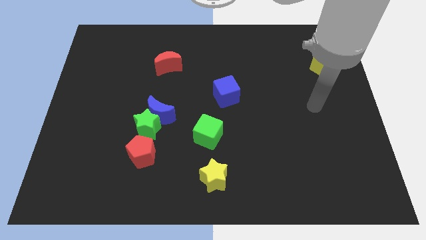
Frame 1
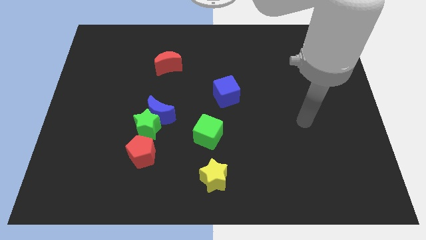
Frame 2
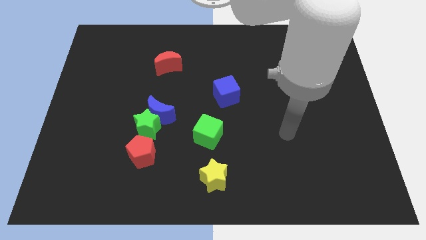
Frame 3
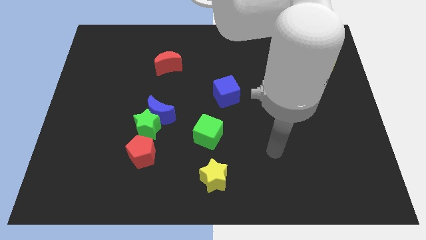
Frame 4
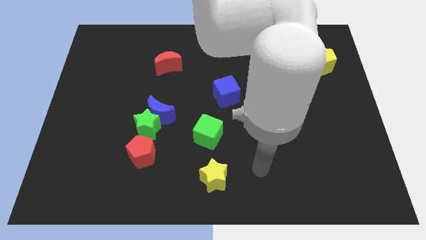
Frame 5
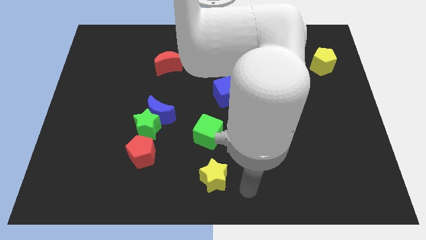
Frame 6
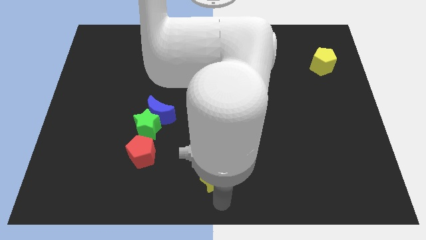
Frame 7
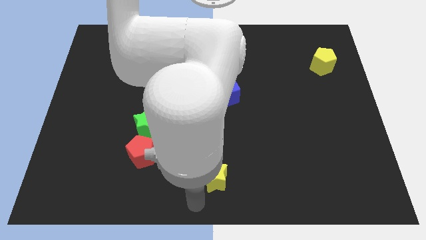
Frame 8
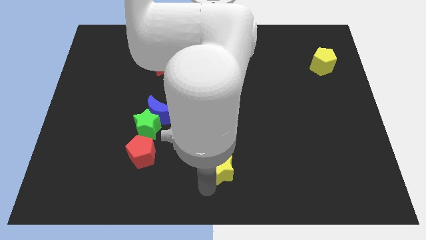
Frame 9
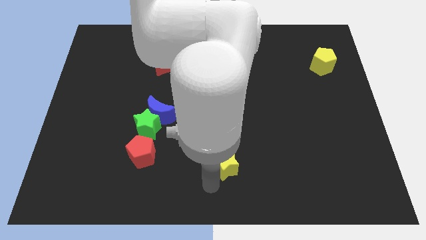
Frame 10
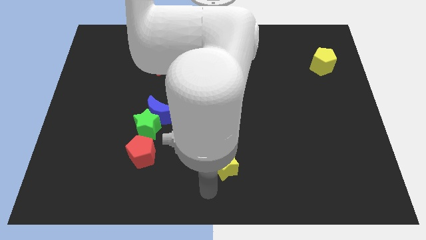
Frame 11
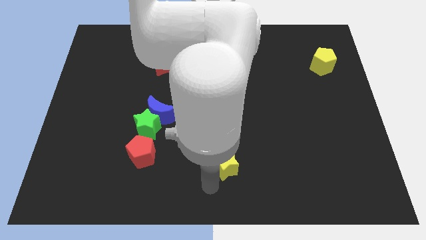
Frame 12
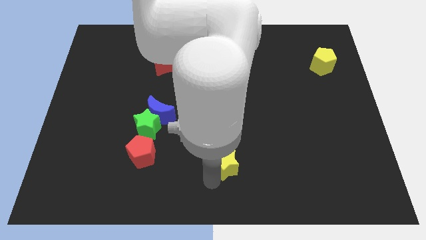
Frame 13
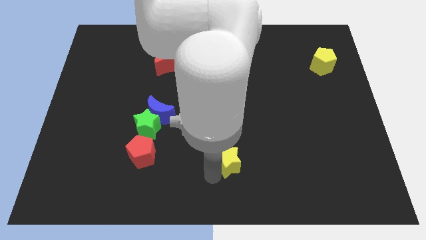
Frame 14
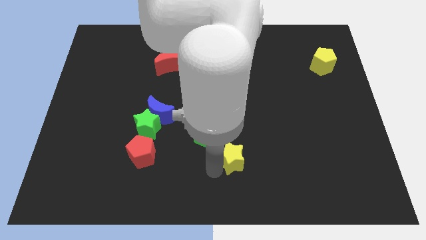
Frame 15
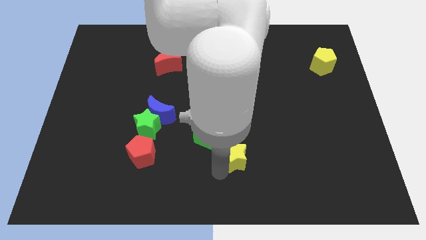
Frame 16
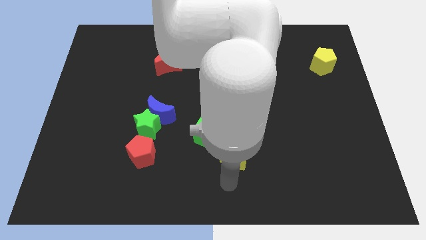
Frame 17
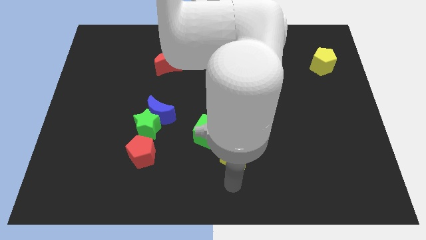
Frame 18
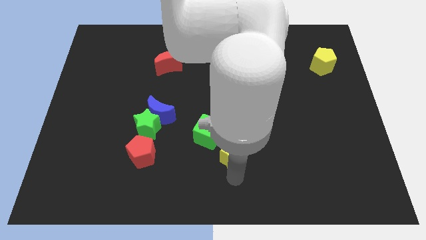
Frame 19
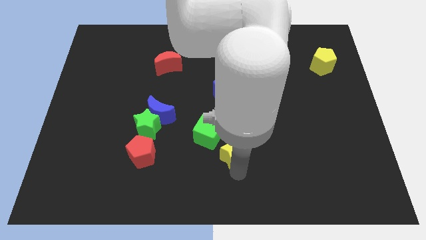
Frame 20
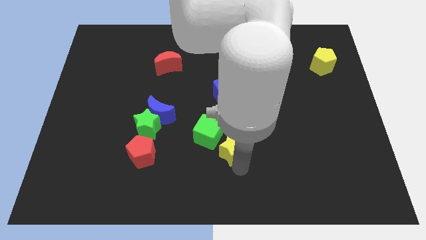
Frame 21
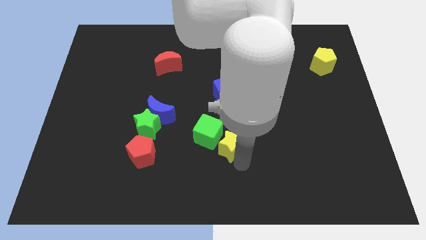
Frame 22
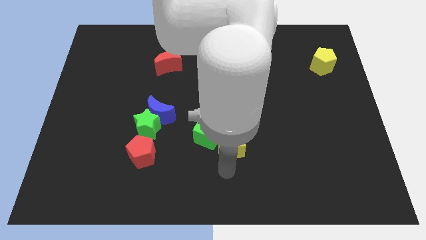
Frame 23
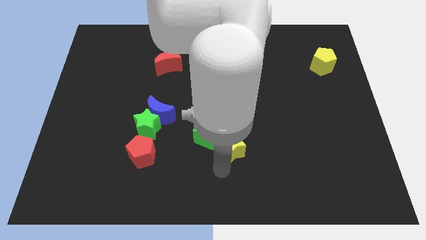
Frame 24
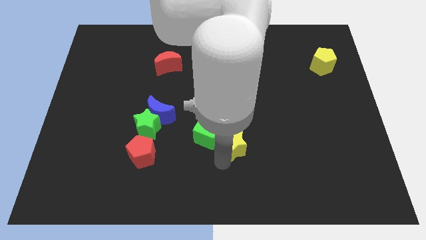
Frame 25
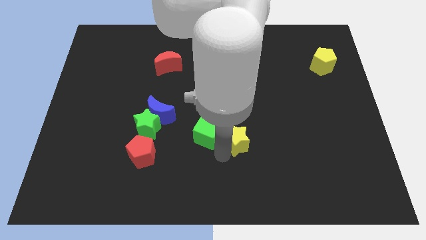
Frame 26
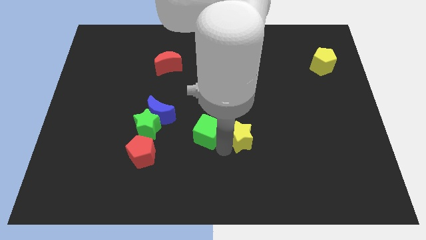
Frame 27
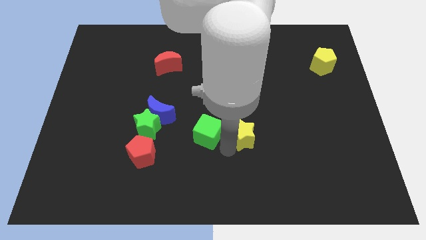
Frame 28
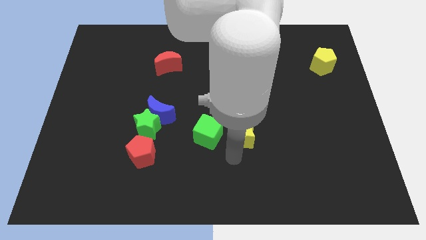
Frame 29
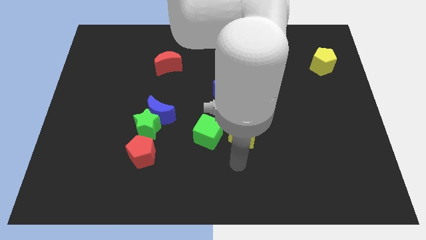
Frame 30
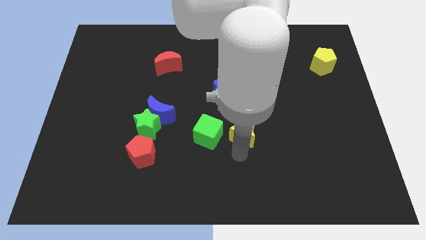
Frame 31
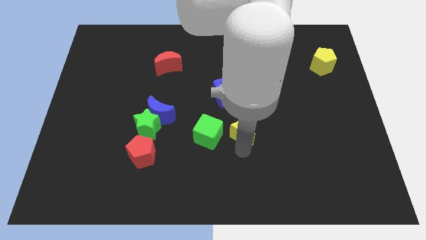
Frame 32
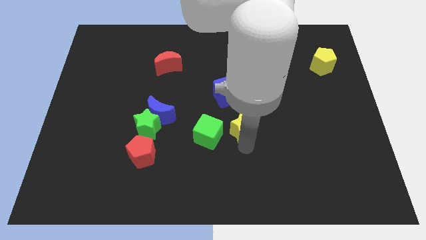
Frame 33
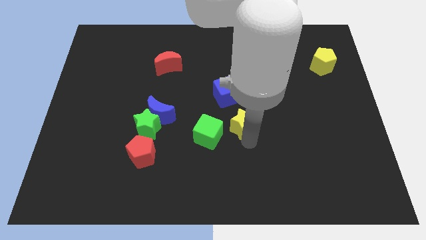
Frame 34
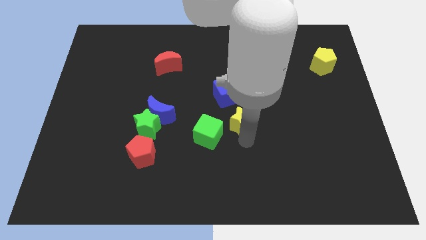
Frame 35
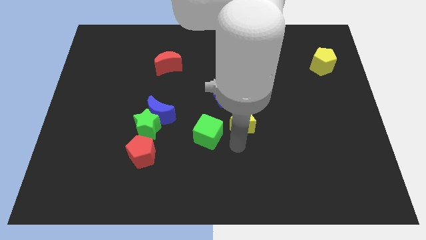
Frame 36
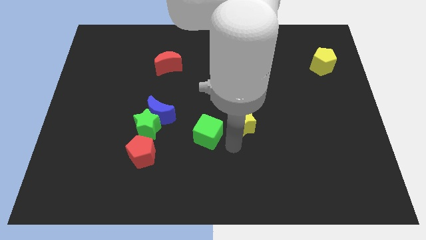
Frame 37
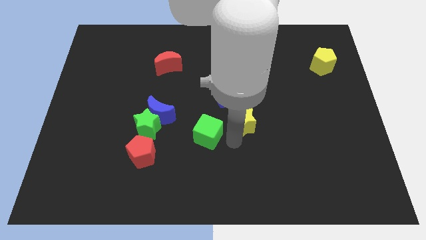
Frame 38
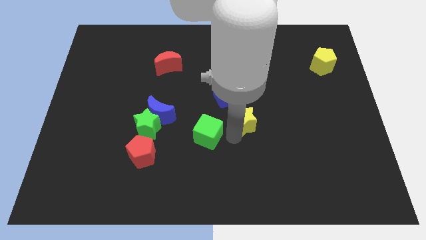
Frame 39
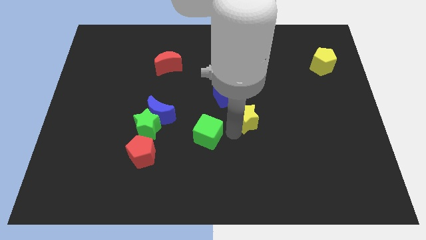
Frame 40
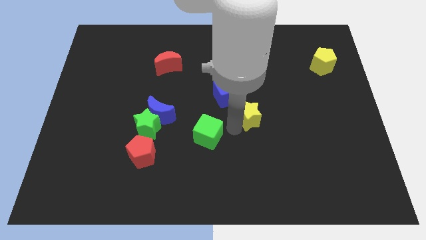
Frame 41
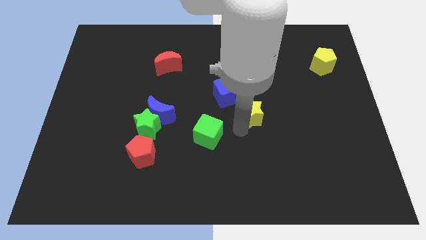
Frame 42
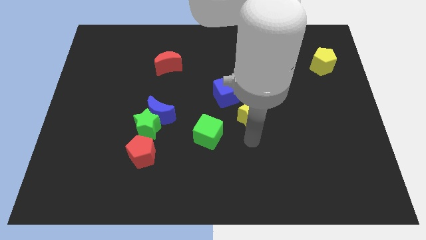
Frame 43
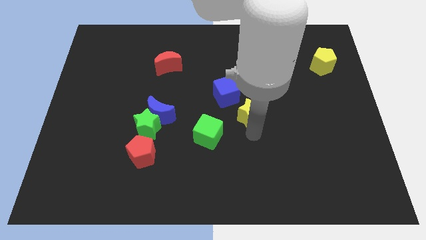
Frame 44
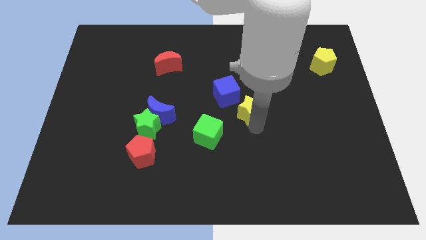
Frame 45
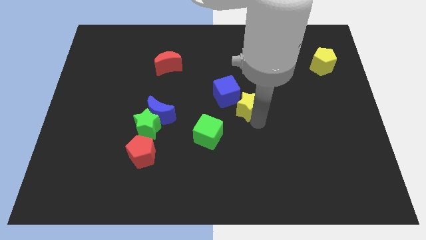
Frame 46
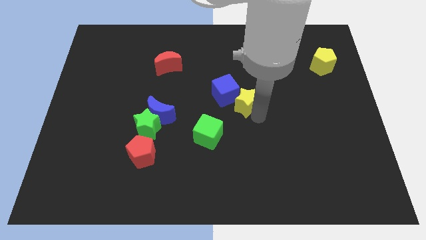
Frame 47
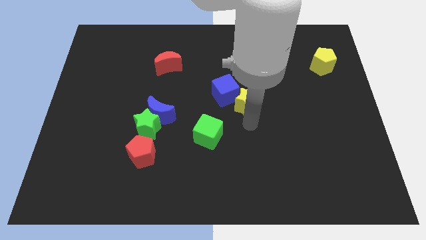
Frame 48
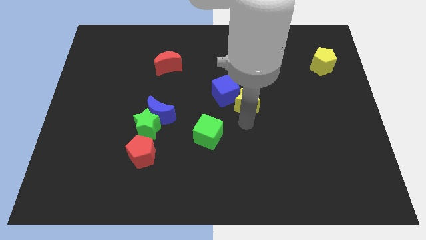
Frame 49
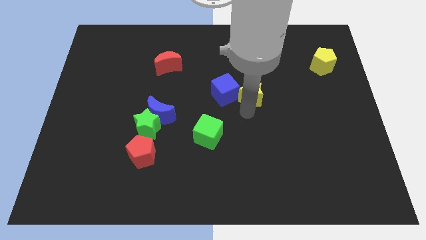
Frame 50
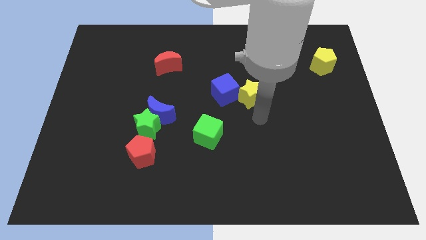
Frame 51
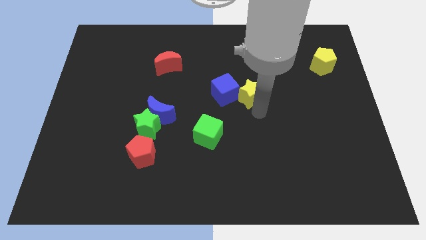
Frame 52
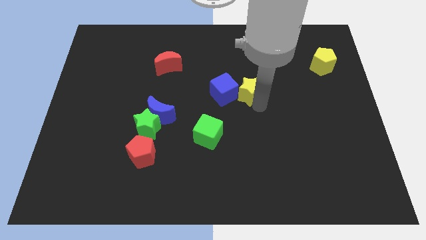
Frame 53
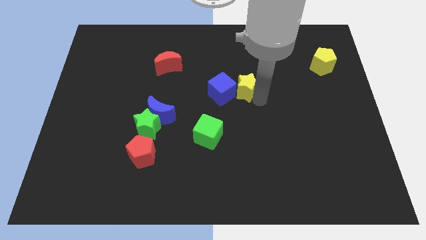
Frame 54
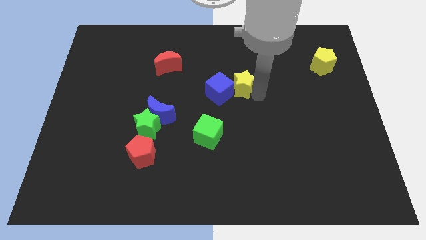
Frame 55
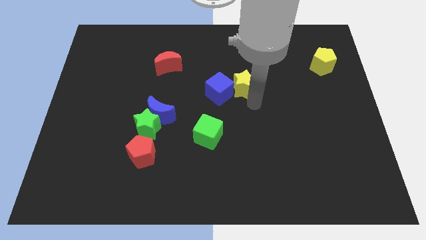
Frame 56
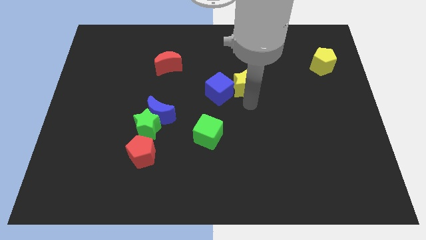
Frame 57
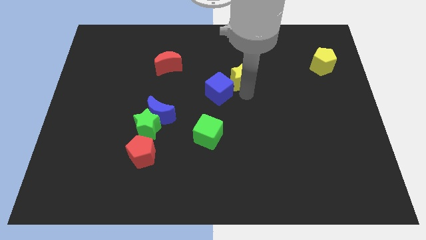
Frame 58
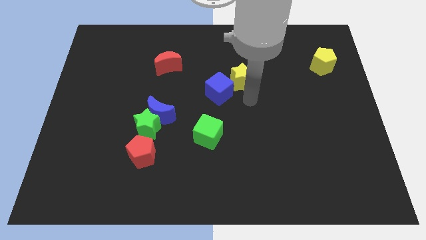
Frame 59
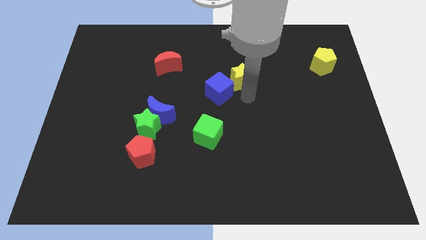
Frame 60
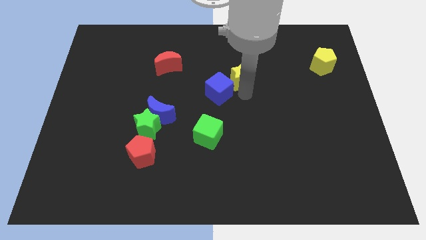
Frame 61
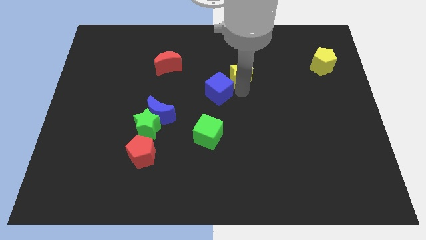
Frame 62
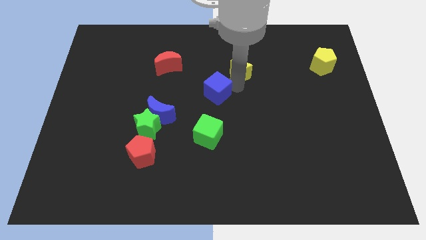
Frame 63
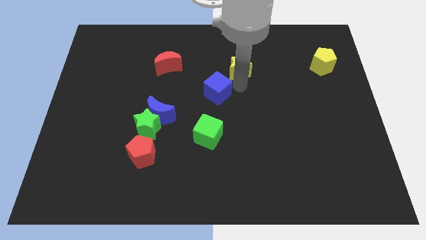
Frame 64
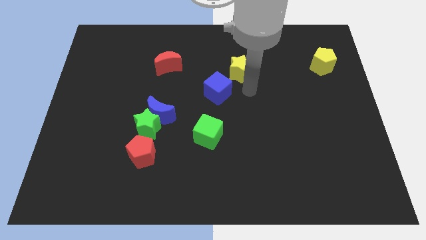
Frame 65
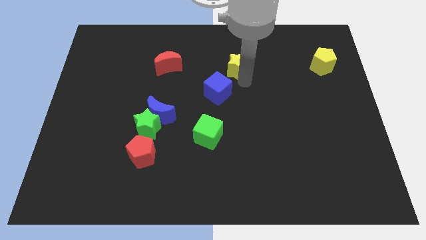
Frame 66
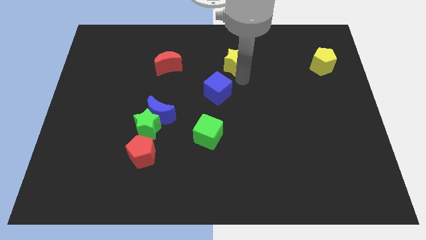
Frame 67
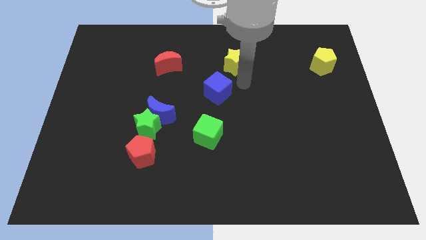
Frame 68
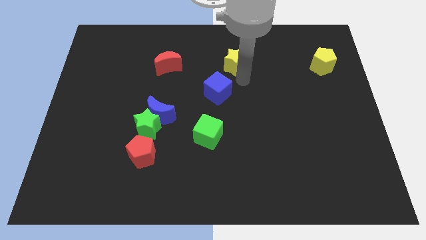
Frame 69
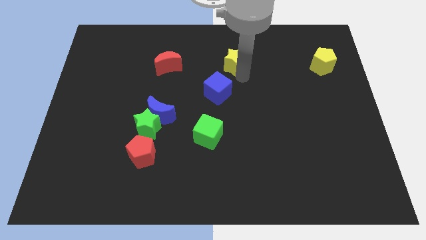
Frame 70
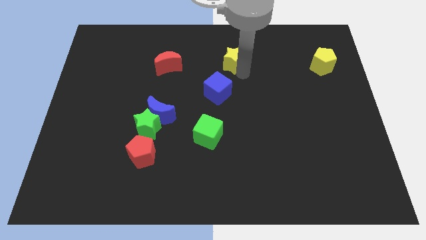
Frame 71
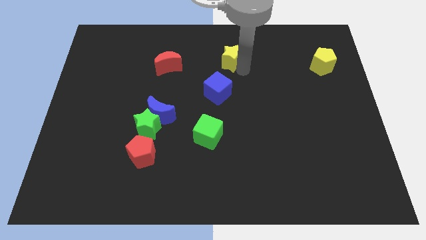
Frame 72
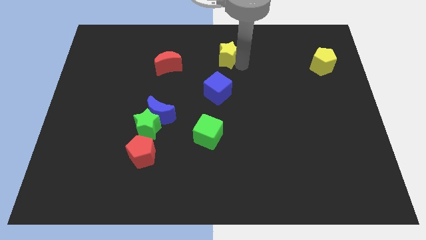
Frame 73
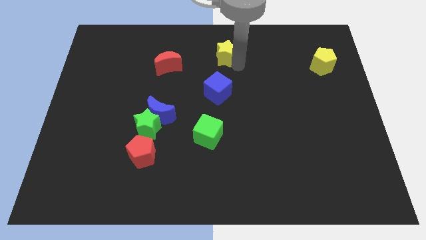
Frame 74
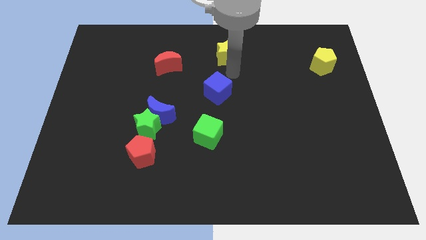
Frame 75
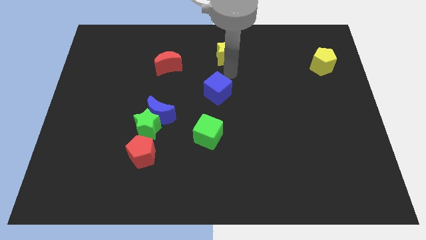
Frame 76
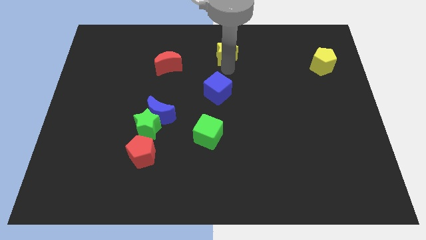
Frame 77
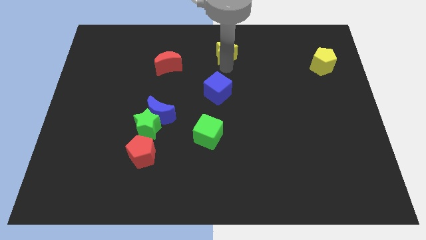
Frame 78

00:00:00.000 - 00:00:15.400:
push the yellow star to the top
